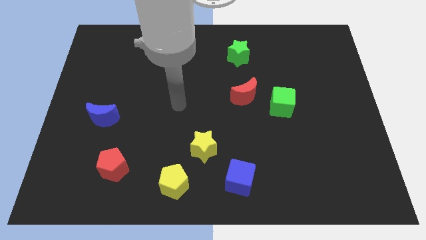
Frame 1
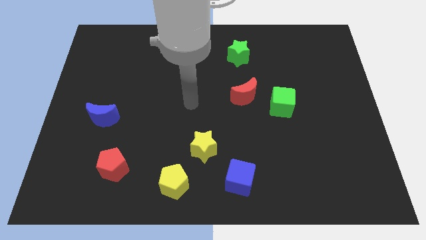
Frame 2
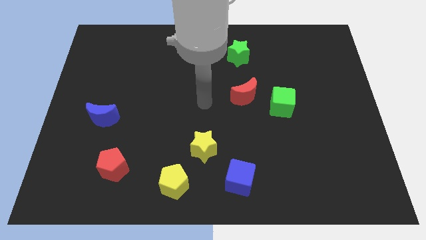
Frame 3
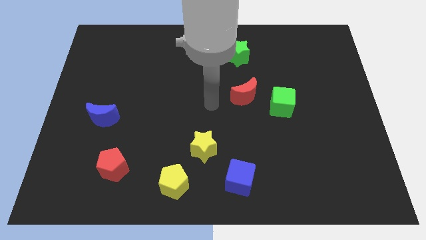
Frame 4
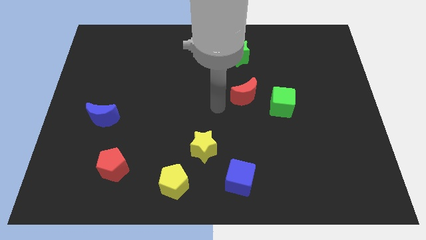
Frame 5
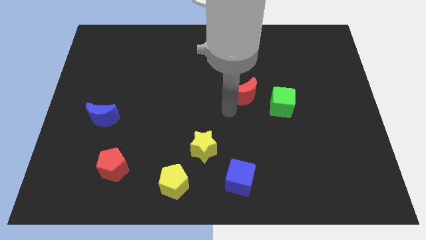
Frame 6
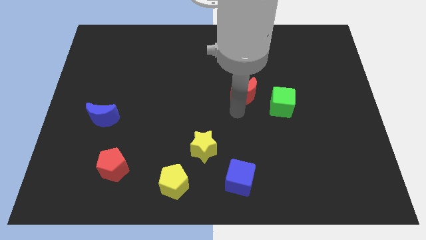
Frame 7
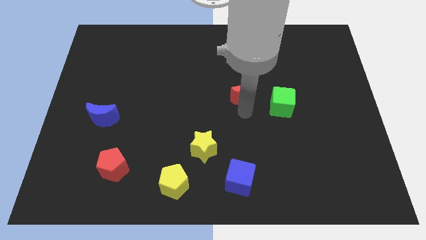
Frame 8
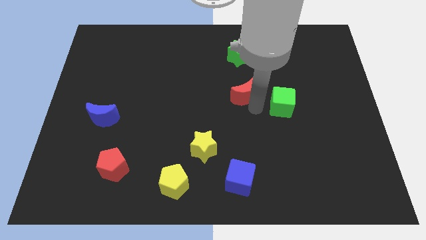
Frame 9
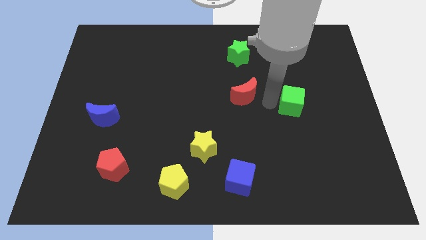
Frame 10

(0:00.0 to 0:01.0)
move the red moon away from the green cube

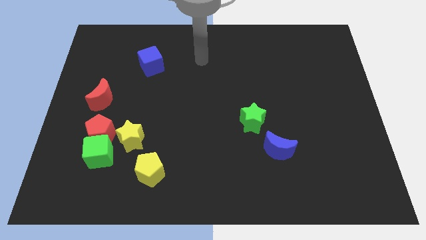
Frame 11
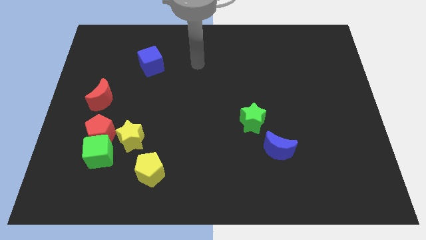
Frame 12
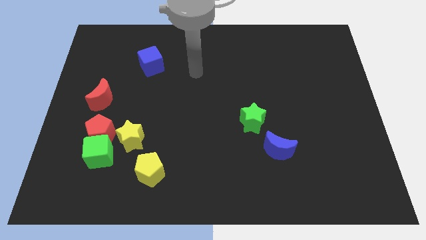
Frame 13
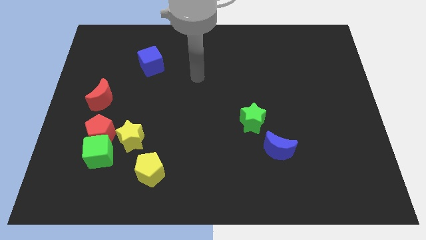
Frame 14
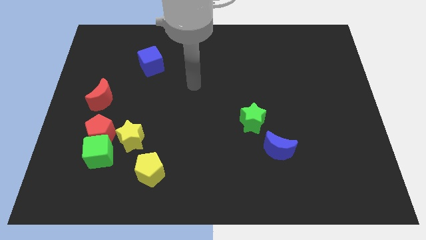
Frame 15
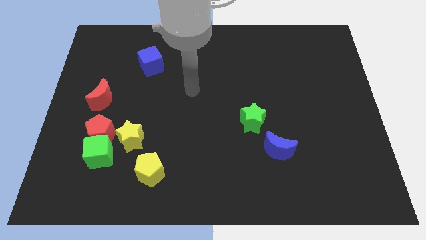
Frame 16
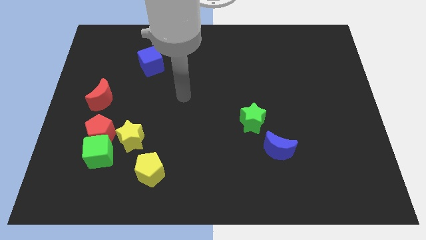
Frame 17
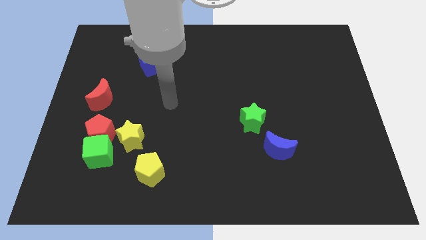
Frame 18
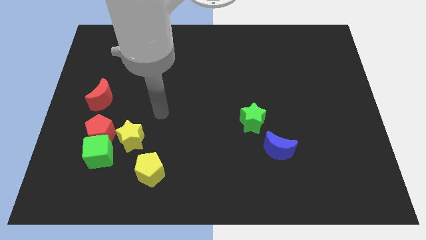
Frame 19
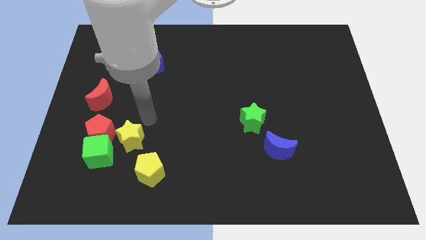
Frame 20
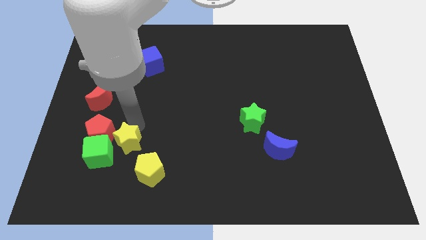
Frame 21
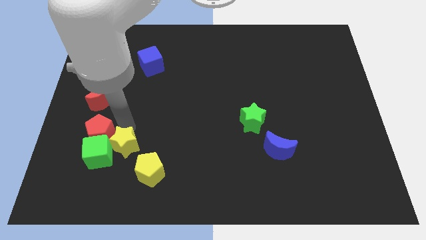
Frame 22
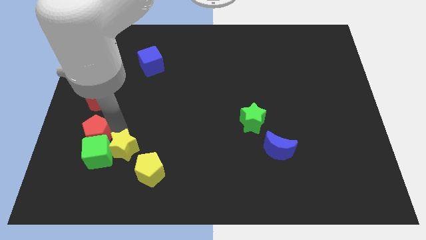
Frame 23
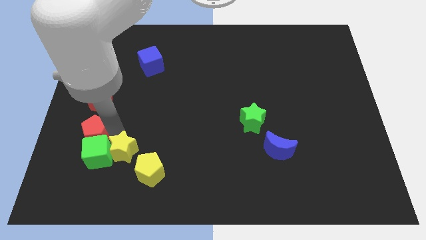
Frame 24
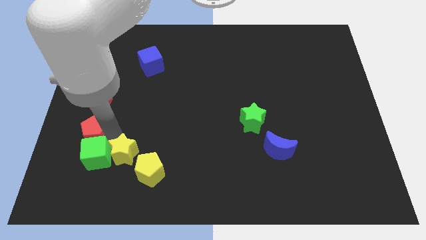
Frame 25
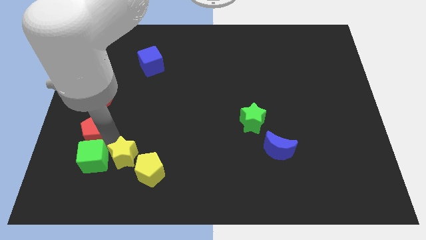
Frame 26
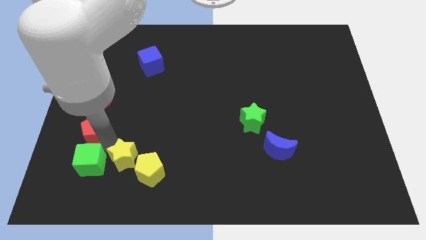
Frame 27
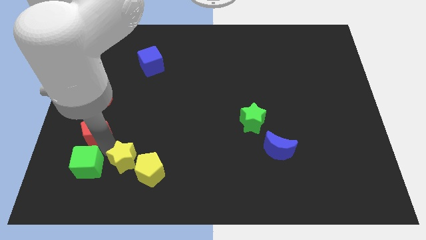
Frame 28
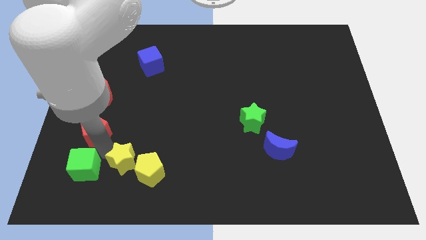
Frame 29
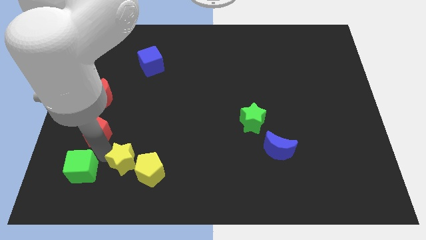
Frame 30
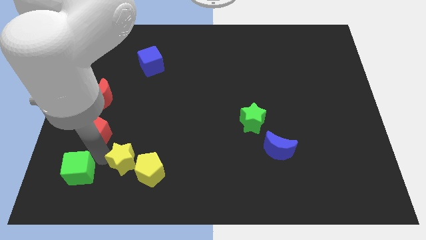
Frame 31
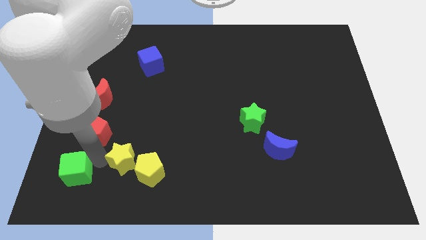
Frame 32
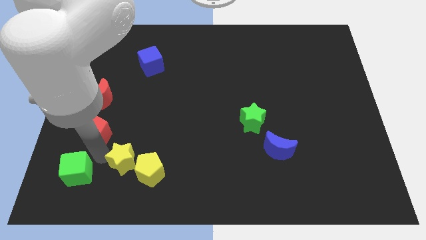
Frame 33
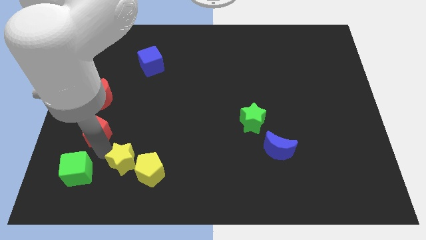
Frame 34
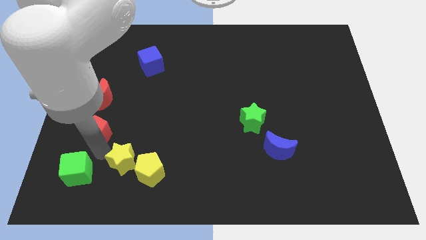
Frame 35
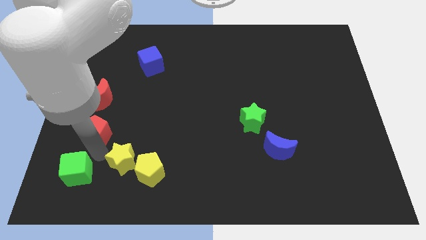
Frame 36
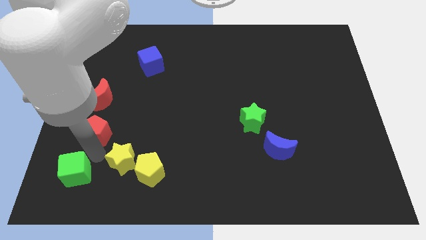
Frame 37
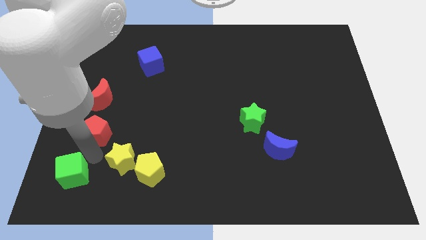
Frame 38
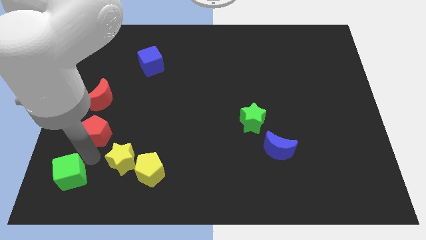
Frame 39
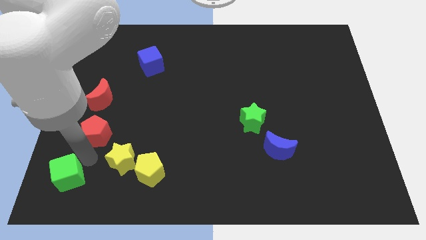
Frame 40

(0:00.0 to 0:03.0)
pull the green cube apart from the red pentagon and yellow star

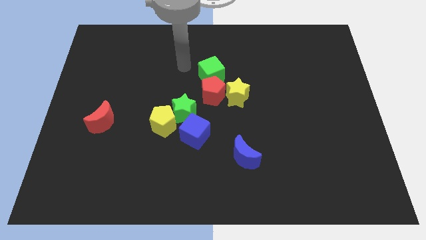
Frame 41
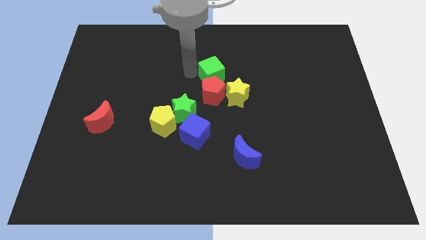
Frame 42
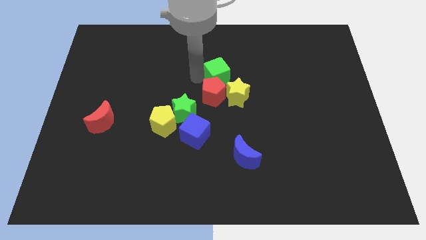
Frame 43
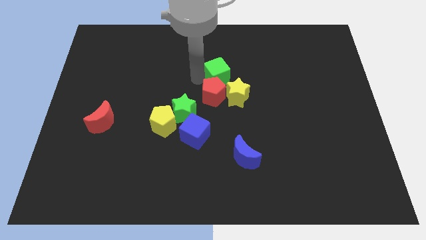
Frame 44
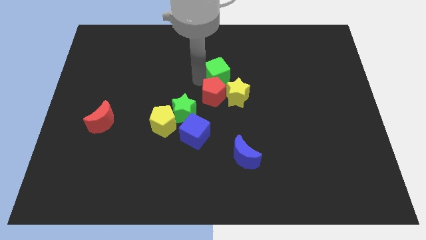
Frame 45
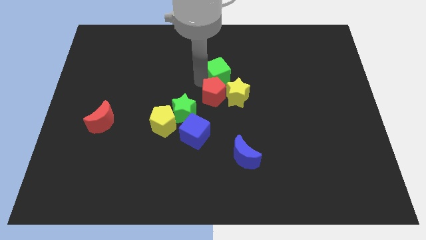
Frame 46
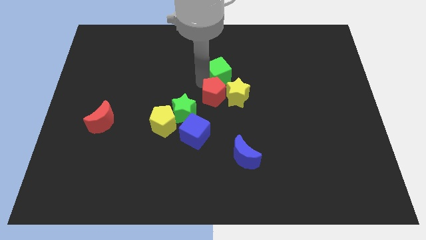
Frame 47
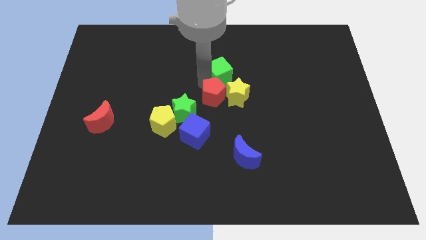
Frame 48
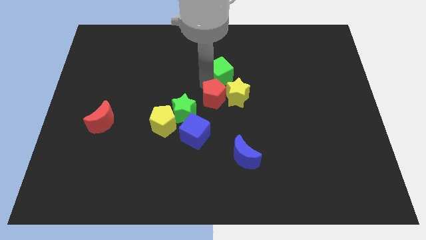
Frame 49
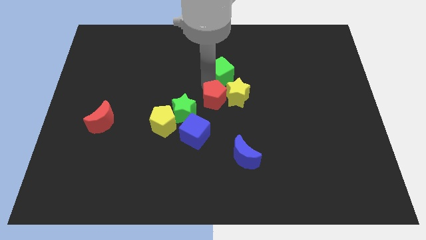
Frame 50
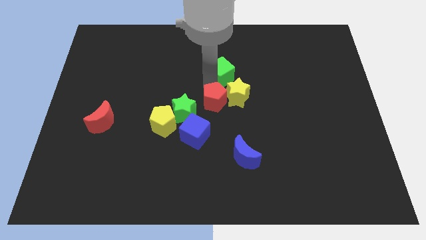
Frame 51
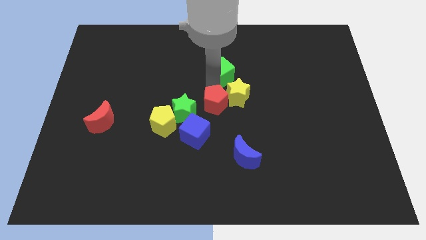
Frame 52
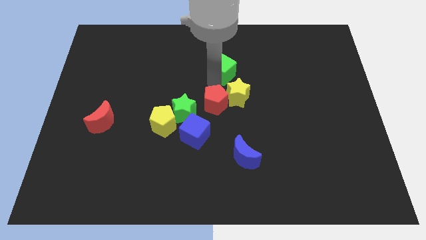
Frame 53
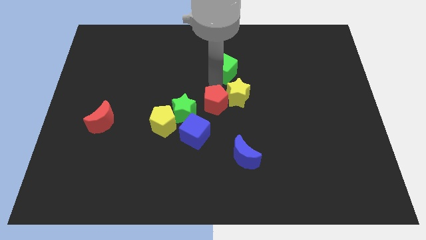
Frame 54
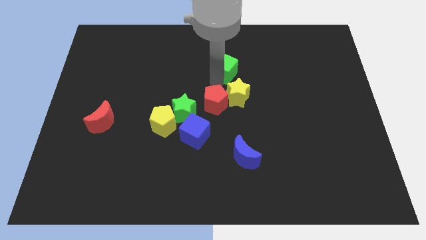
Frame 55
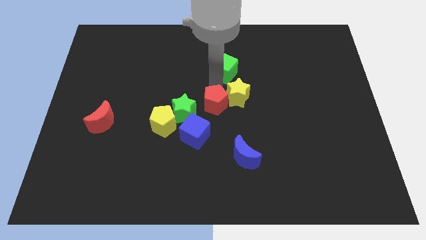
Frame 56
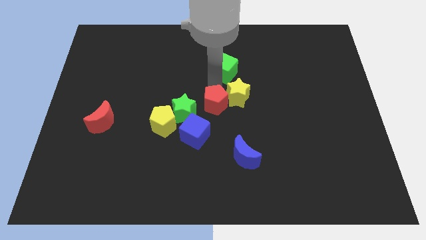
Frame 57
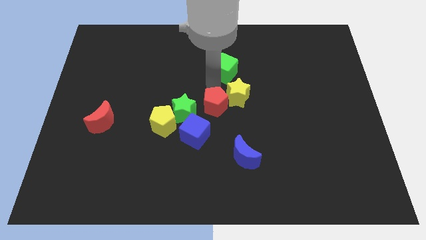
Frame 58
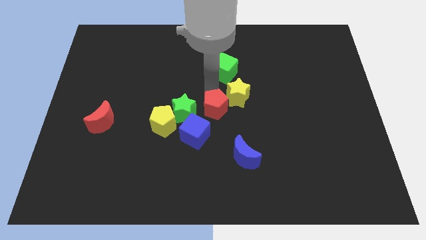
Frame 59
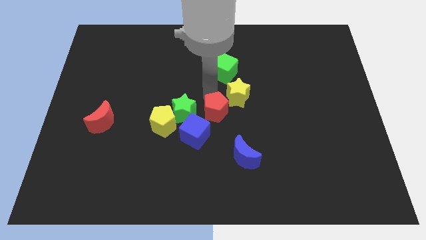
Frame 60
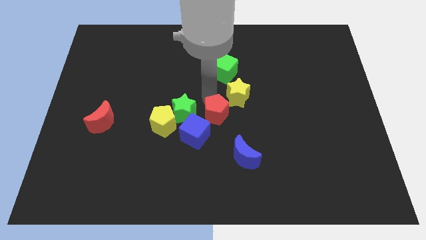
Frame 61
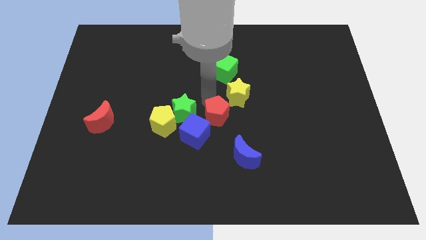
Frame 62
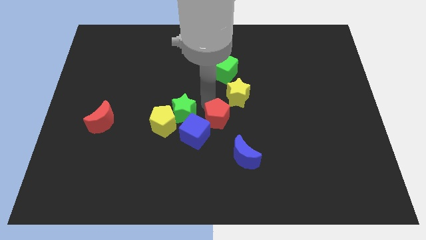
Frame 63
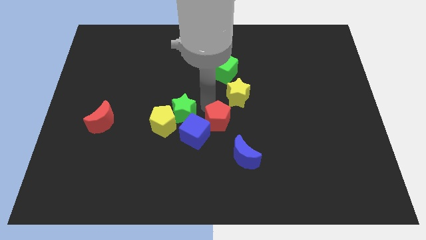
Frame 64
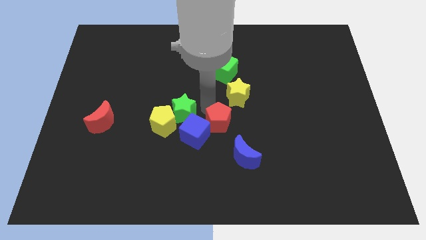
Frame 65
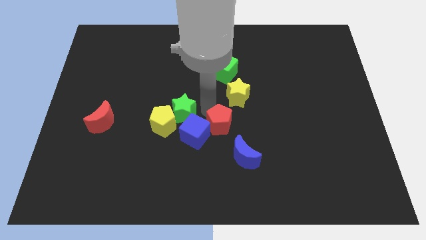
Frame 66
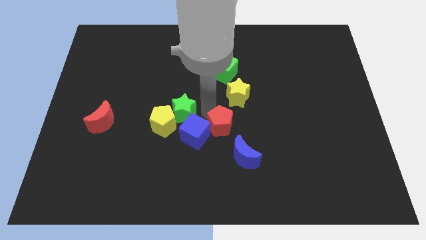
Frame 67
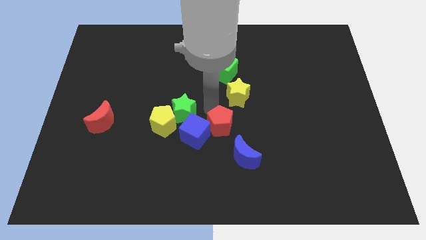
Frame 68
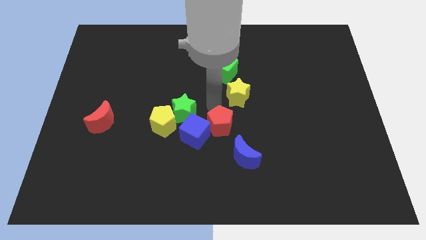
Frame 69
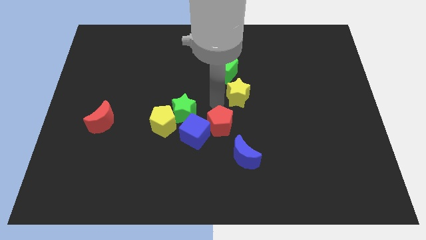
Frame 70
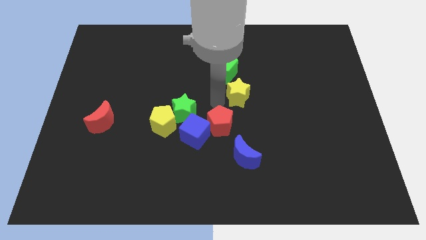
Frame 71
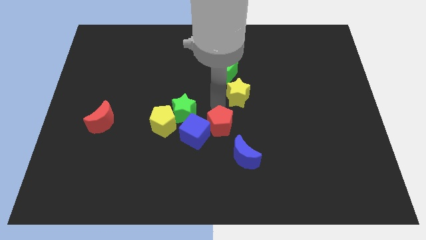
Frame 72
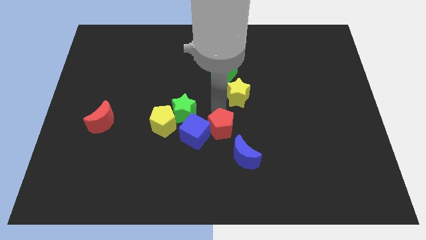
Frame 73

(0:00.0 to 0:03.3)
move the red pentagon away from the group of blocks

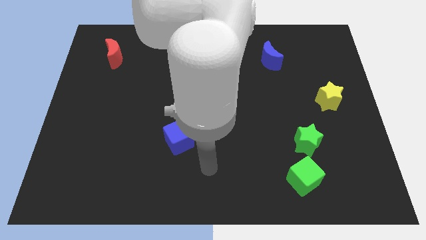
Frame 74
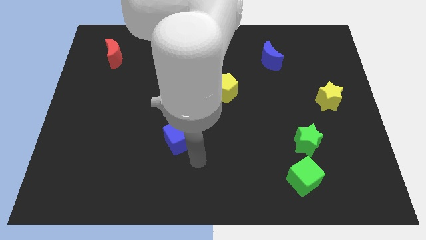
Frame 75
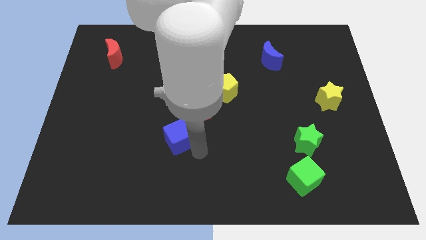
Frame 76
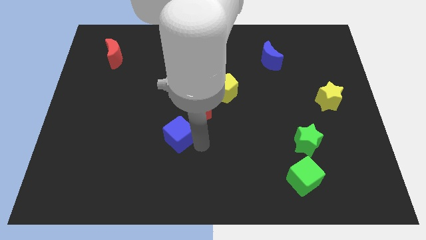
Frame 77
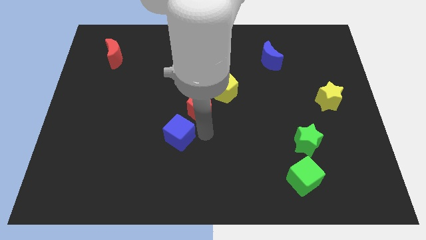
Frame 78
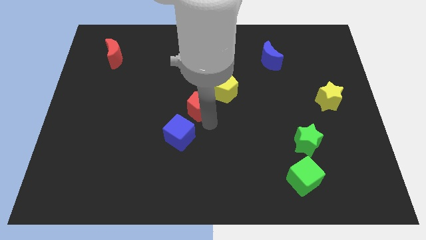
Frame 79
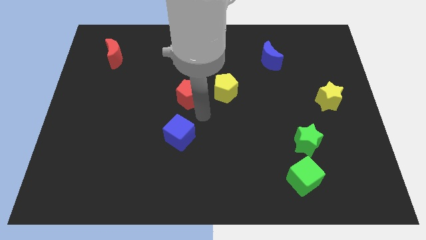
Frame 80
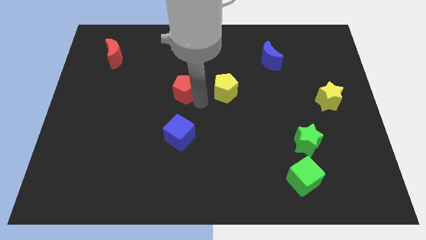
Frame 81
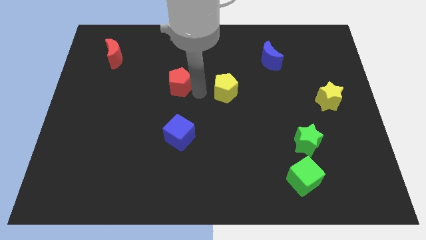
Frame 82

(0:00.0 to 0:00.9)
separate the yellow pentagon from the red pentagon

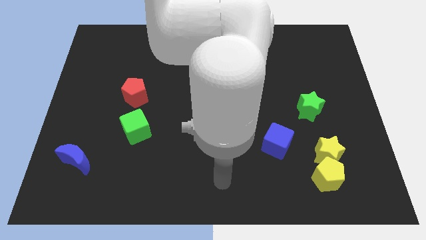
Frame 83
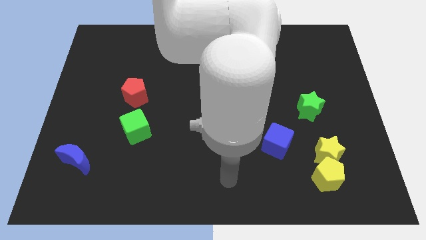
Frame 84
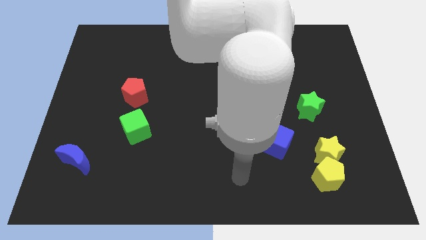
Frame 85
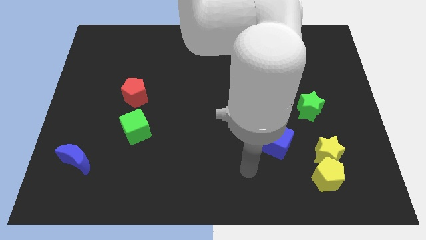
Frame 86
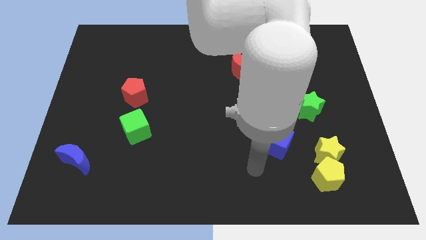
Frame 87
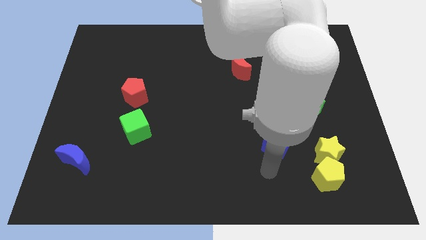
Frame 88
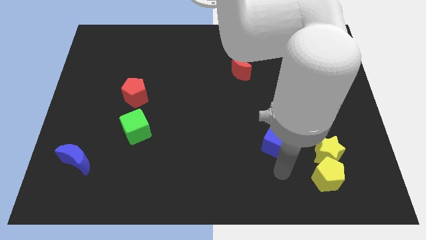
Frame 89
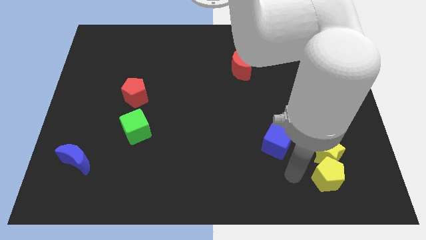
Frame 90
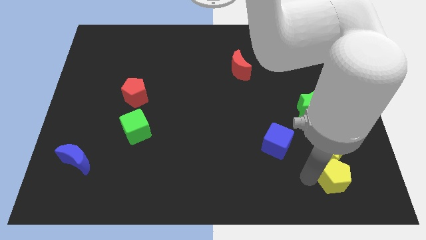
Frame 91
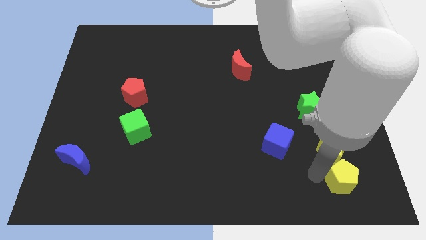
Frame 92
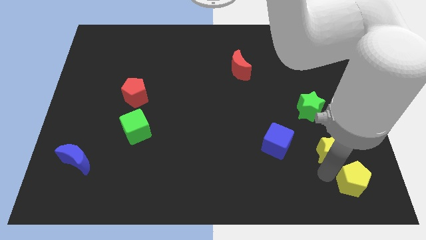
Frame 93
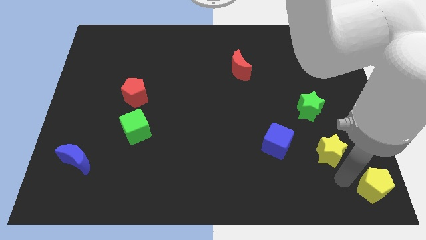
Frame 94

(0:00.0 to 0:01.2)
move the yellow star away from the yellow pentagon
